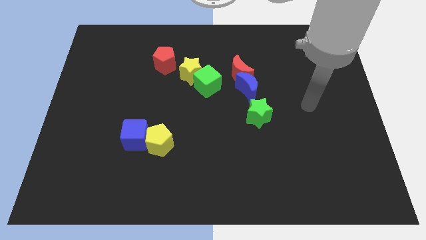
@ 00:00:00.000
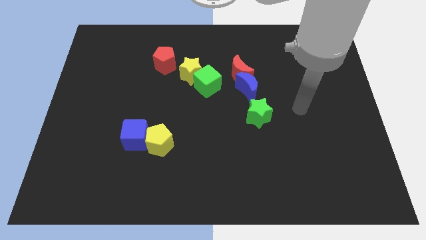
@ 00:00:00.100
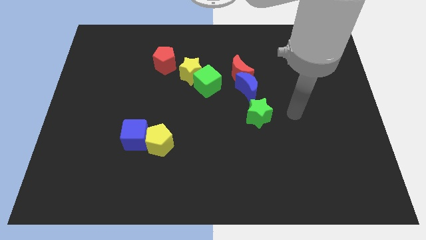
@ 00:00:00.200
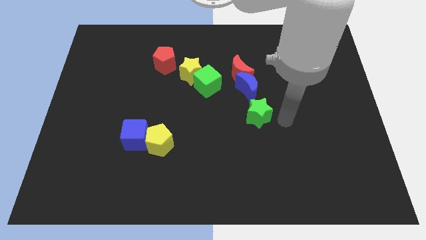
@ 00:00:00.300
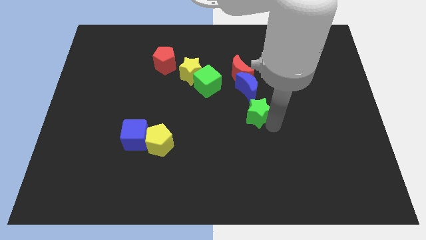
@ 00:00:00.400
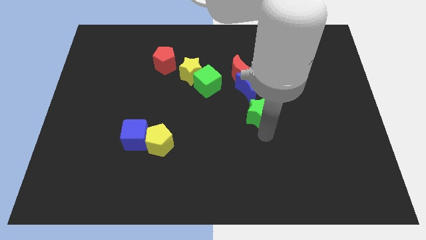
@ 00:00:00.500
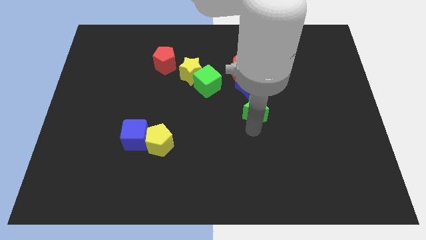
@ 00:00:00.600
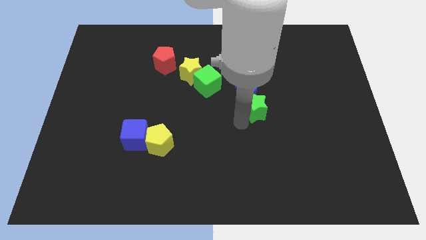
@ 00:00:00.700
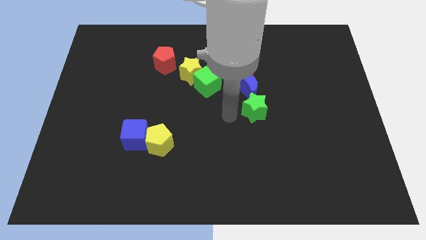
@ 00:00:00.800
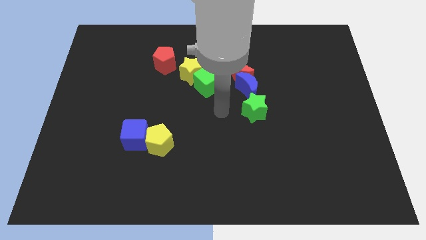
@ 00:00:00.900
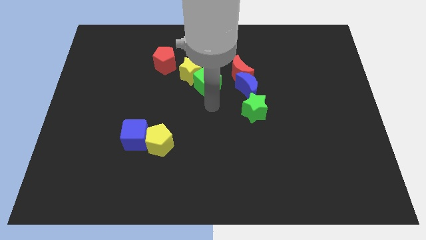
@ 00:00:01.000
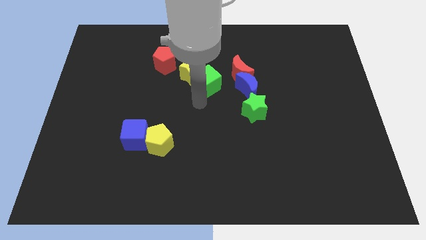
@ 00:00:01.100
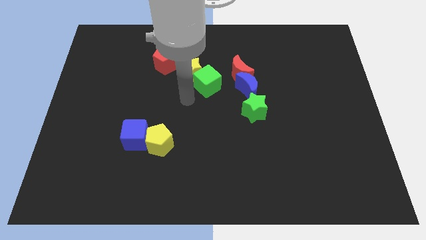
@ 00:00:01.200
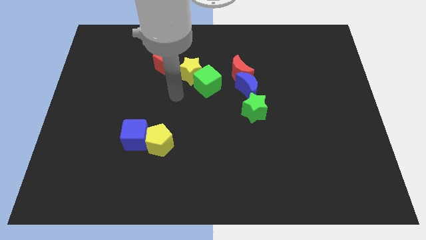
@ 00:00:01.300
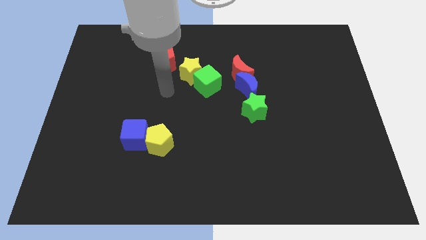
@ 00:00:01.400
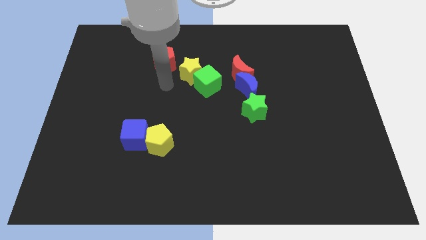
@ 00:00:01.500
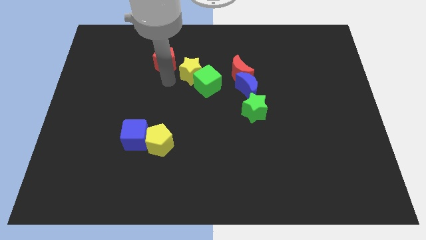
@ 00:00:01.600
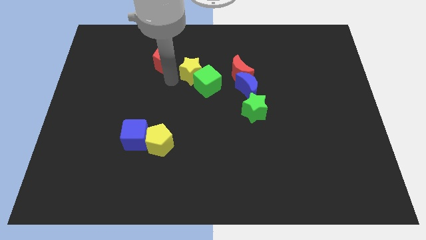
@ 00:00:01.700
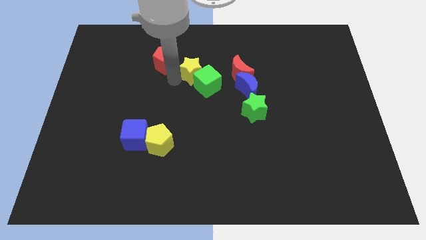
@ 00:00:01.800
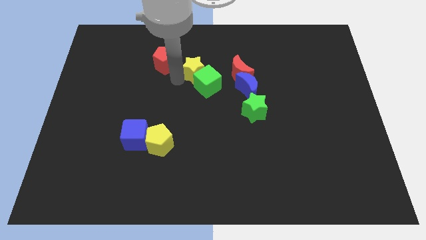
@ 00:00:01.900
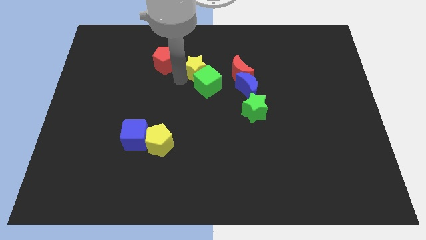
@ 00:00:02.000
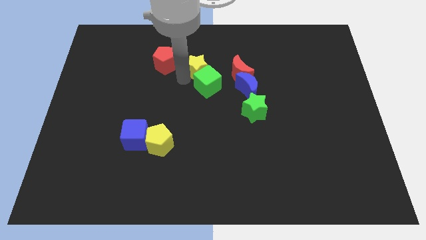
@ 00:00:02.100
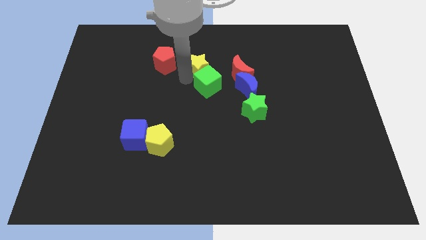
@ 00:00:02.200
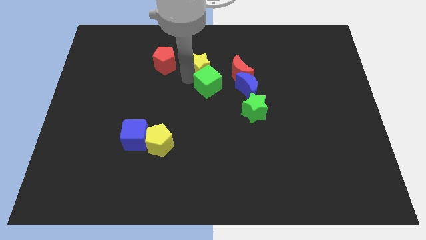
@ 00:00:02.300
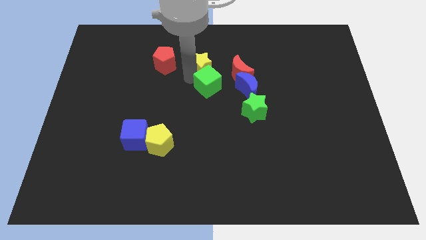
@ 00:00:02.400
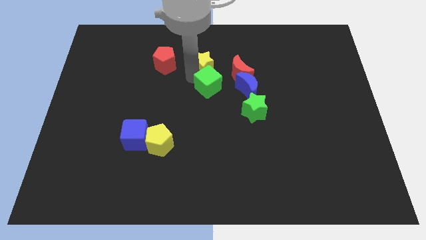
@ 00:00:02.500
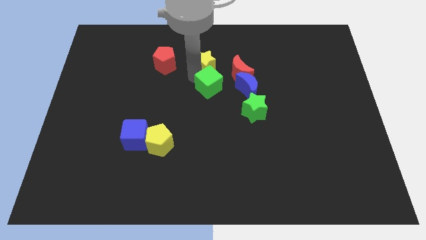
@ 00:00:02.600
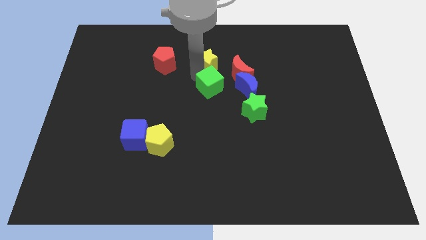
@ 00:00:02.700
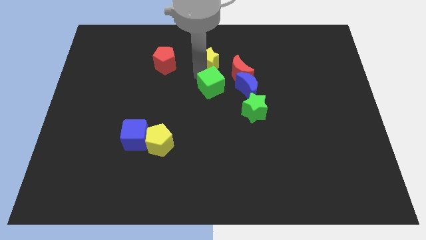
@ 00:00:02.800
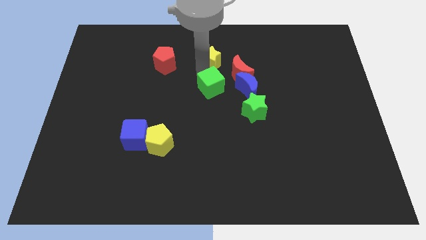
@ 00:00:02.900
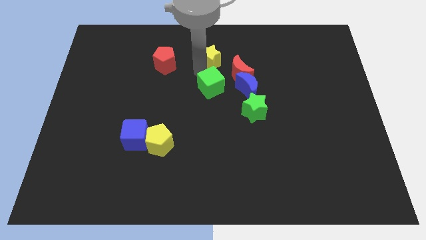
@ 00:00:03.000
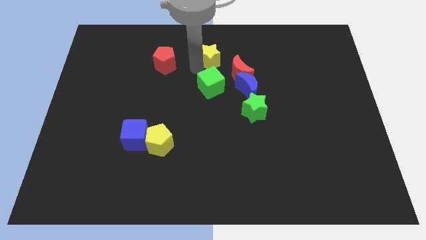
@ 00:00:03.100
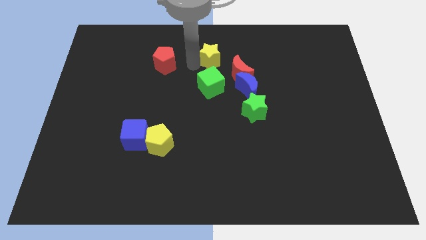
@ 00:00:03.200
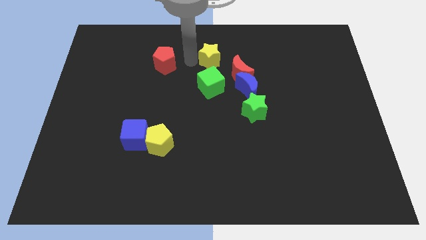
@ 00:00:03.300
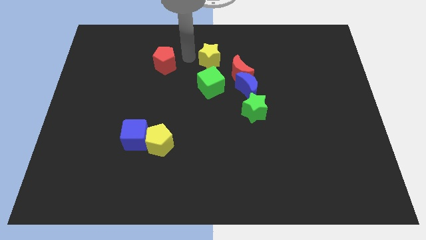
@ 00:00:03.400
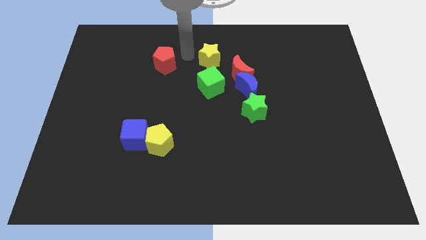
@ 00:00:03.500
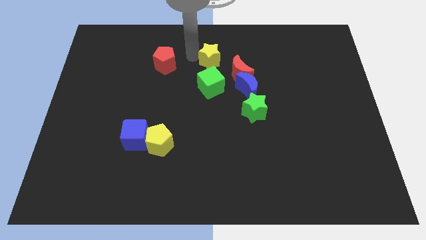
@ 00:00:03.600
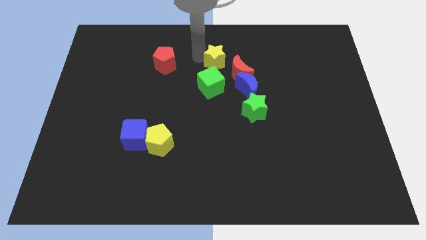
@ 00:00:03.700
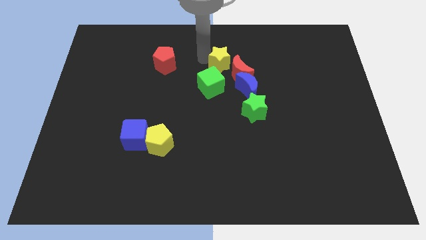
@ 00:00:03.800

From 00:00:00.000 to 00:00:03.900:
slide the yellow star a little bit right

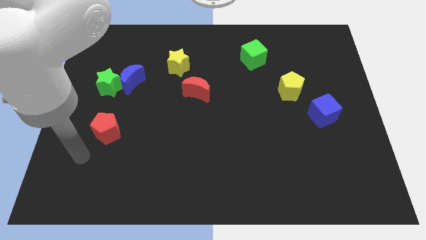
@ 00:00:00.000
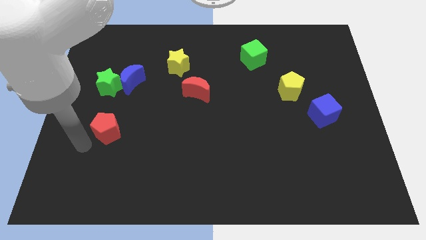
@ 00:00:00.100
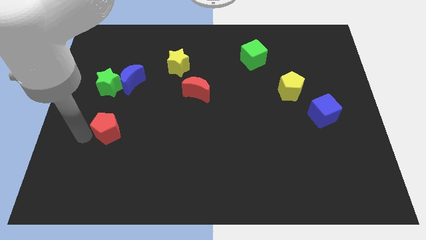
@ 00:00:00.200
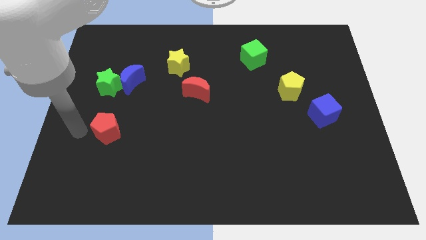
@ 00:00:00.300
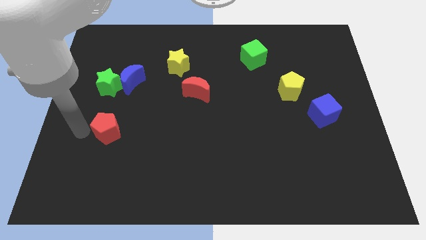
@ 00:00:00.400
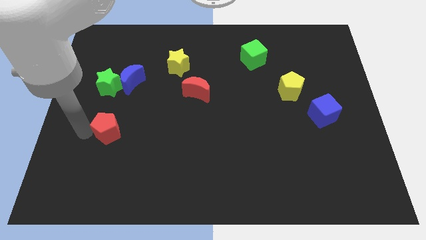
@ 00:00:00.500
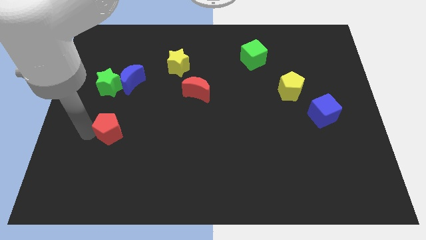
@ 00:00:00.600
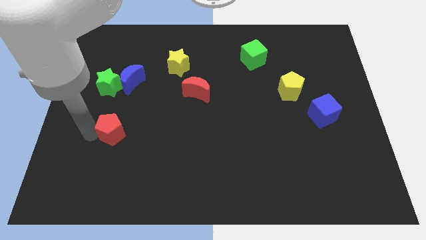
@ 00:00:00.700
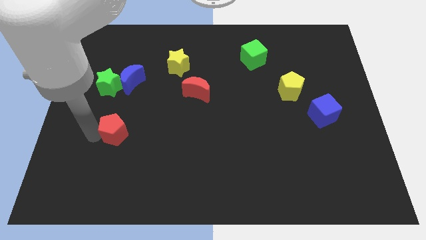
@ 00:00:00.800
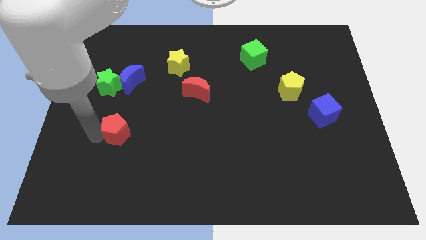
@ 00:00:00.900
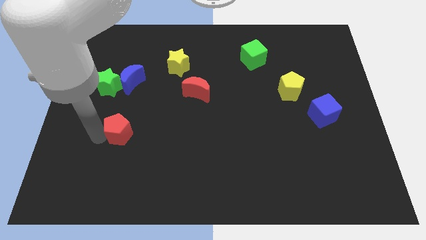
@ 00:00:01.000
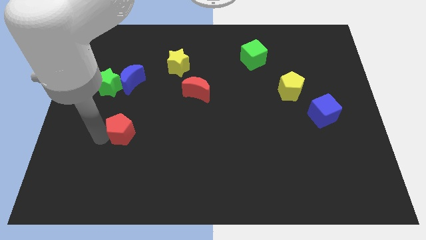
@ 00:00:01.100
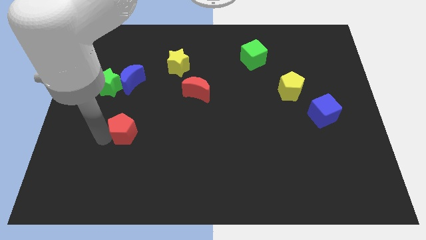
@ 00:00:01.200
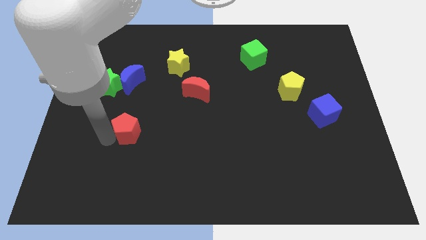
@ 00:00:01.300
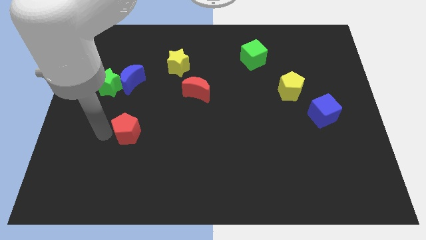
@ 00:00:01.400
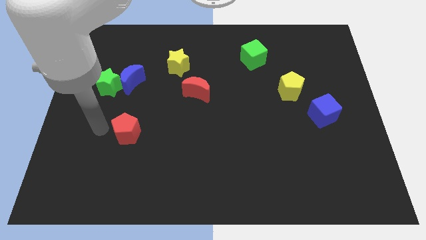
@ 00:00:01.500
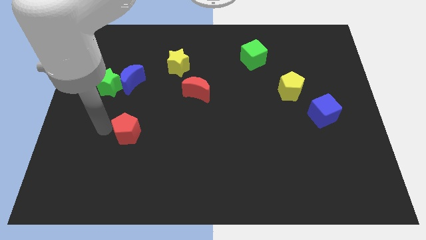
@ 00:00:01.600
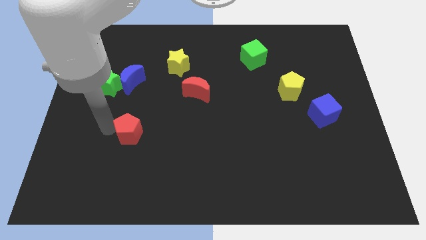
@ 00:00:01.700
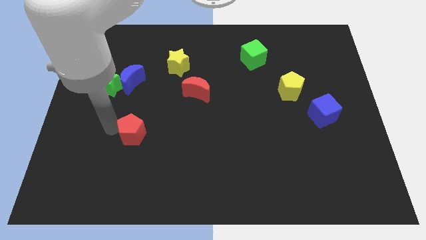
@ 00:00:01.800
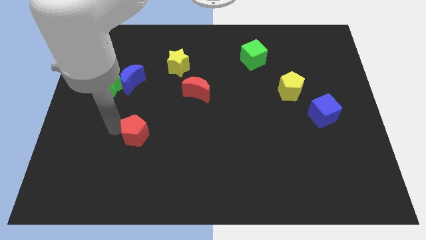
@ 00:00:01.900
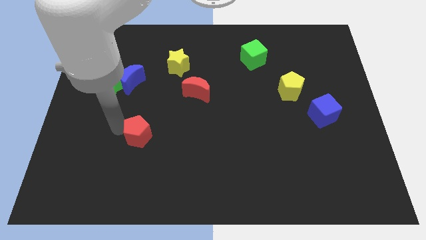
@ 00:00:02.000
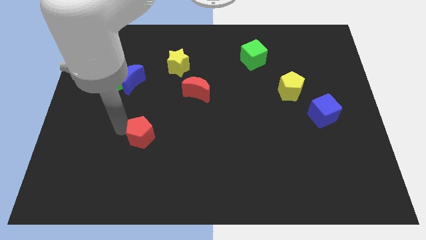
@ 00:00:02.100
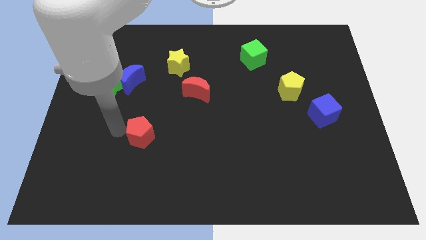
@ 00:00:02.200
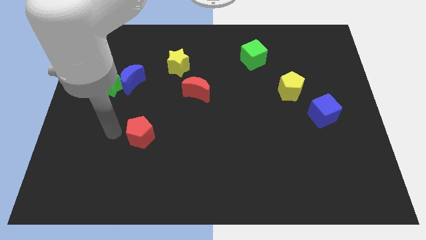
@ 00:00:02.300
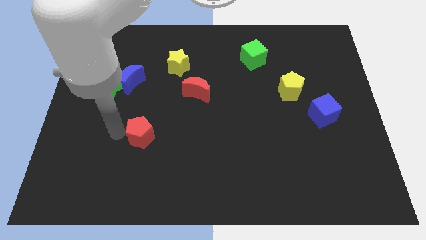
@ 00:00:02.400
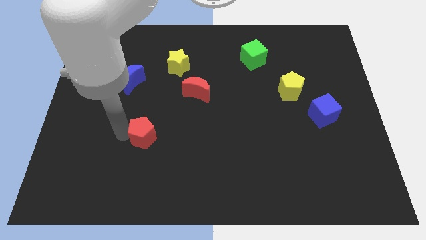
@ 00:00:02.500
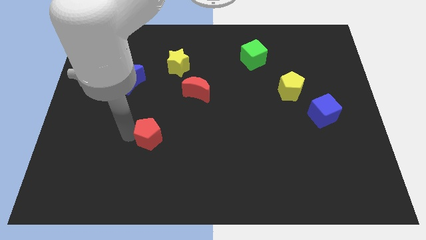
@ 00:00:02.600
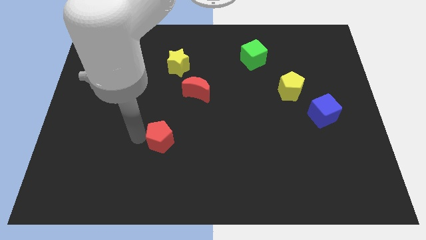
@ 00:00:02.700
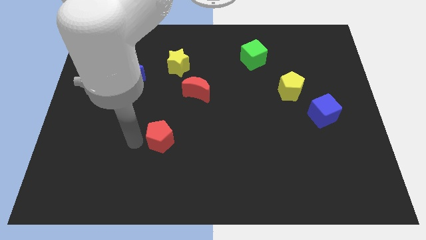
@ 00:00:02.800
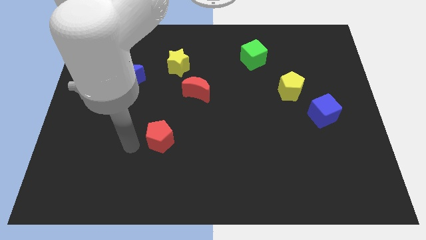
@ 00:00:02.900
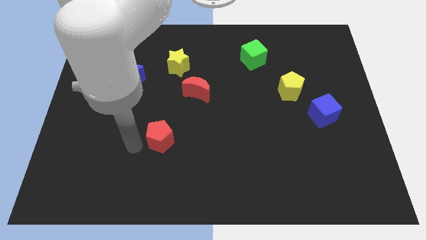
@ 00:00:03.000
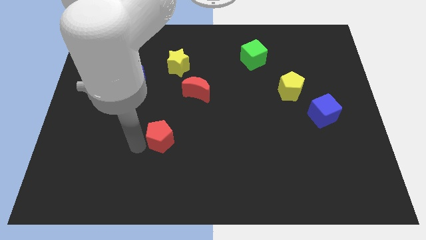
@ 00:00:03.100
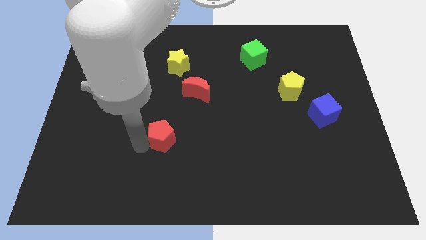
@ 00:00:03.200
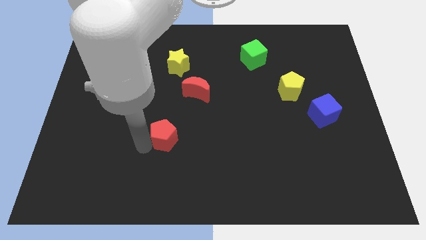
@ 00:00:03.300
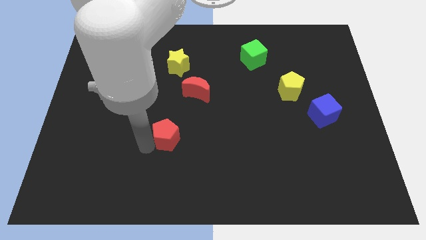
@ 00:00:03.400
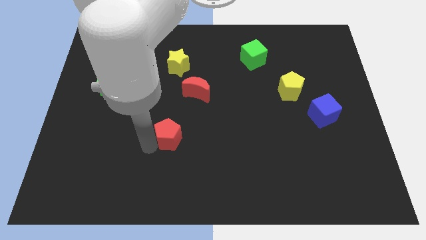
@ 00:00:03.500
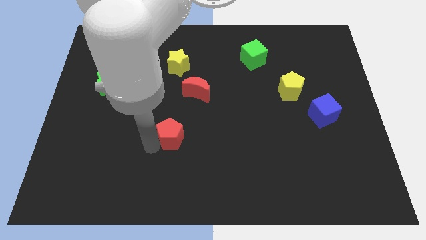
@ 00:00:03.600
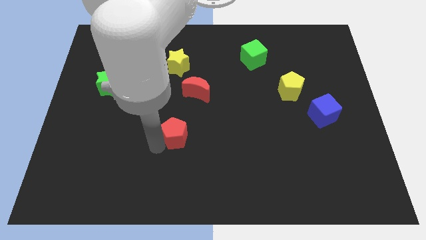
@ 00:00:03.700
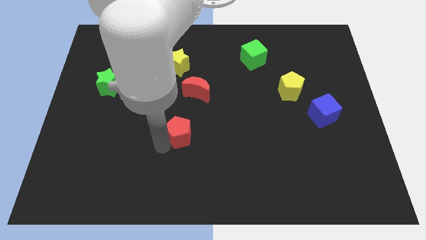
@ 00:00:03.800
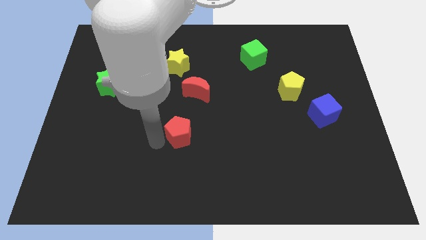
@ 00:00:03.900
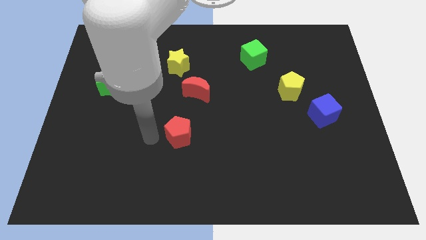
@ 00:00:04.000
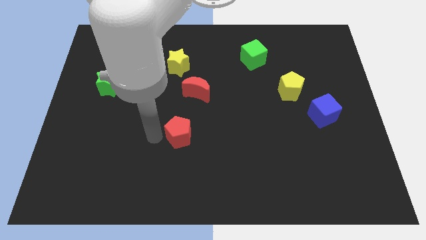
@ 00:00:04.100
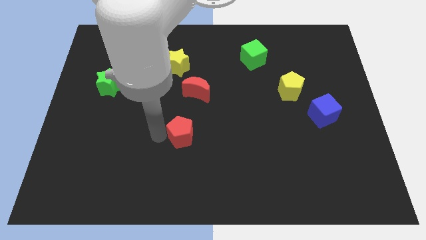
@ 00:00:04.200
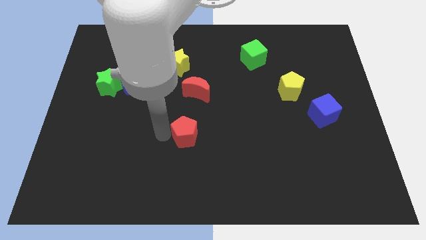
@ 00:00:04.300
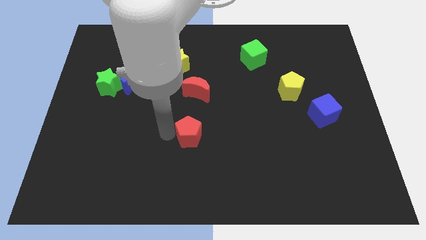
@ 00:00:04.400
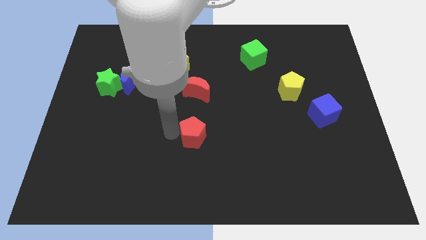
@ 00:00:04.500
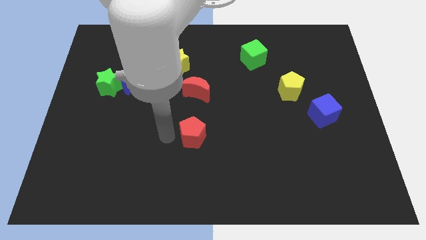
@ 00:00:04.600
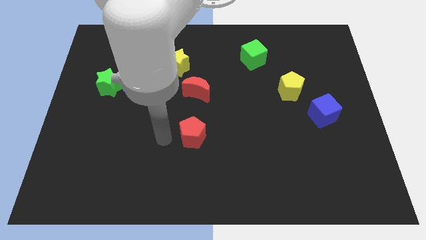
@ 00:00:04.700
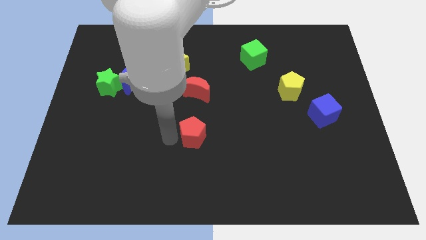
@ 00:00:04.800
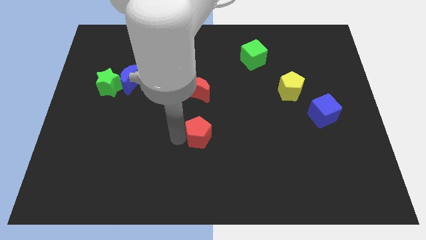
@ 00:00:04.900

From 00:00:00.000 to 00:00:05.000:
move the red pentagon right
